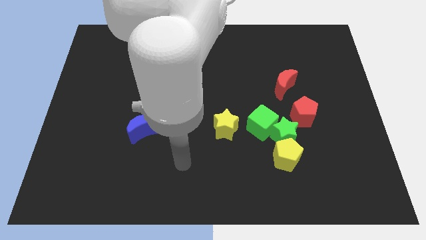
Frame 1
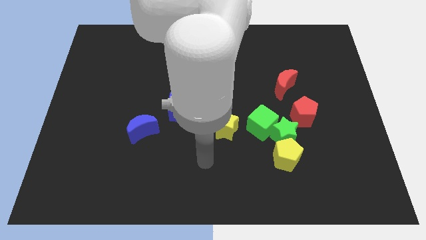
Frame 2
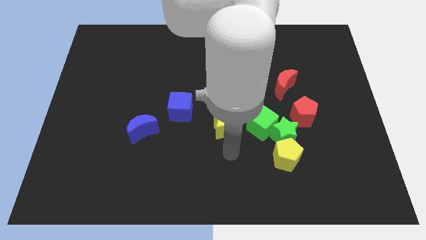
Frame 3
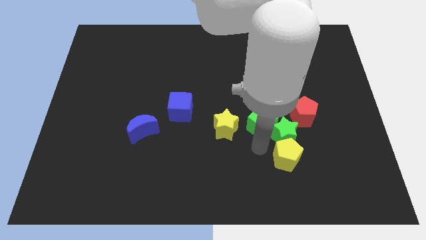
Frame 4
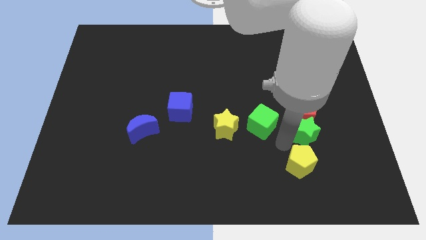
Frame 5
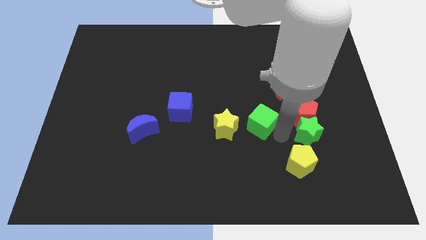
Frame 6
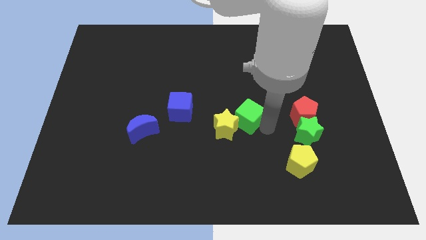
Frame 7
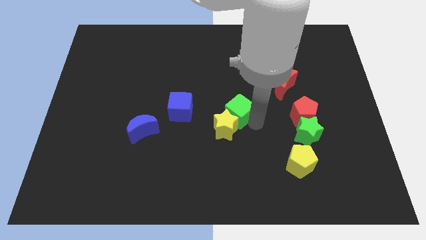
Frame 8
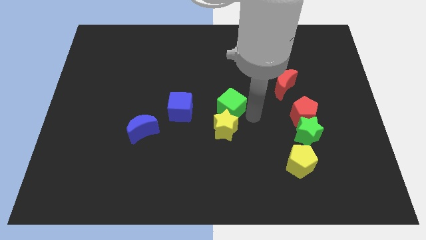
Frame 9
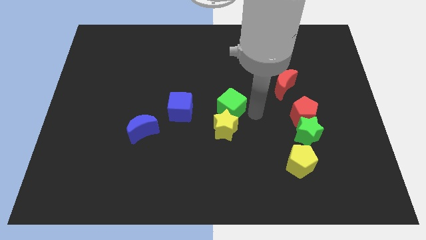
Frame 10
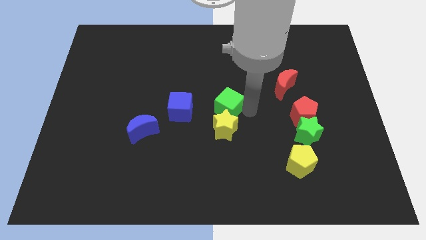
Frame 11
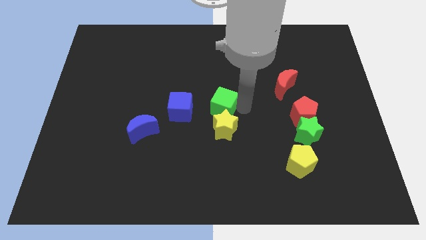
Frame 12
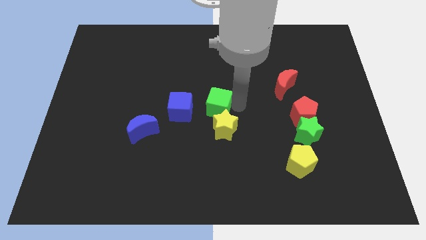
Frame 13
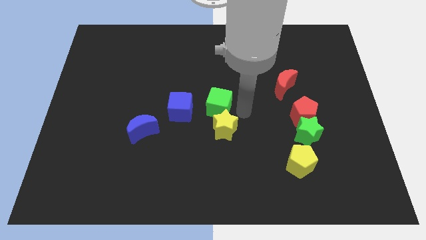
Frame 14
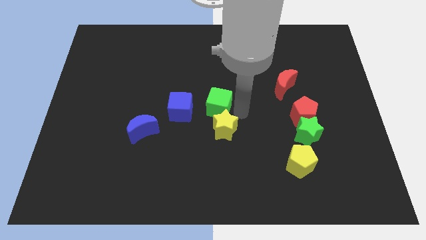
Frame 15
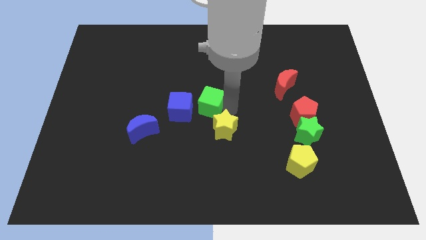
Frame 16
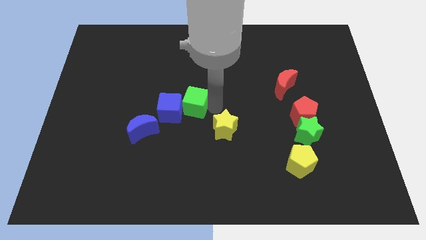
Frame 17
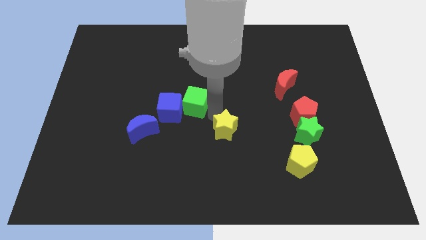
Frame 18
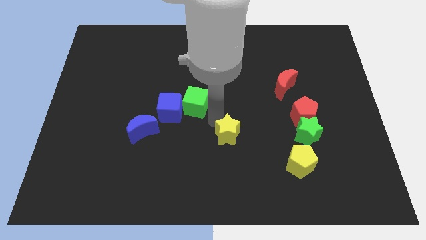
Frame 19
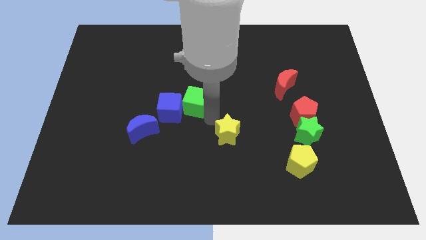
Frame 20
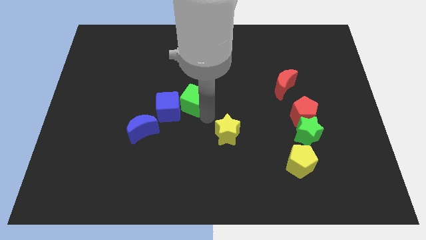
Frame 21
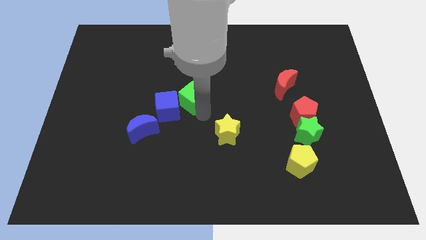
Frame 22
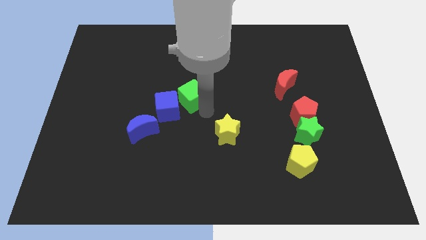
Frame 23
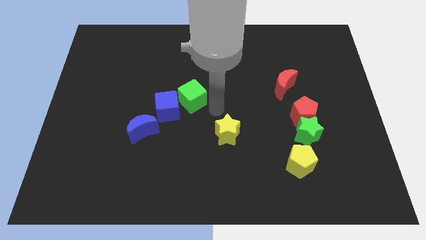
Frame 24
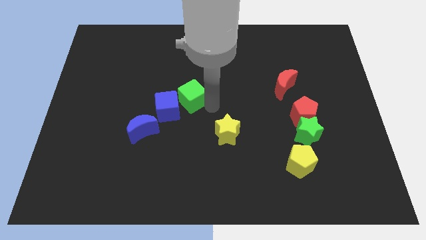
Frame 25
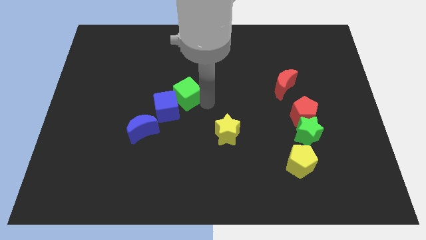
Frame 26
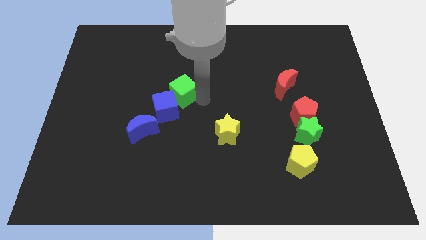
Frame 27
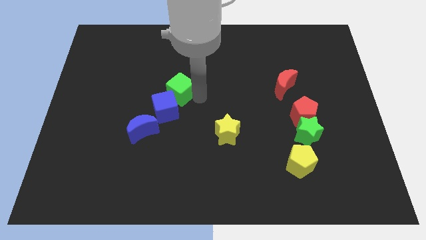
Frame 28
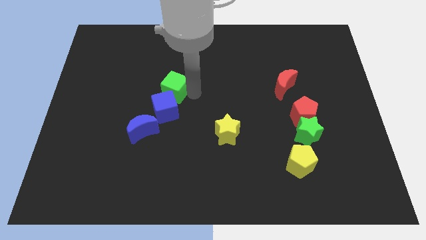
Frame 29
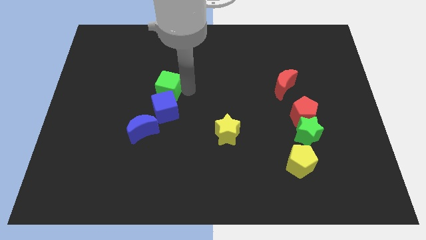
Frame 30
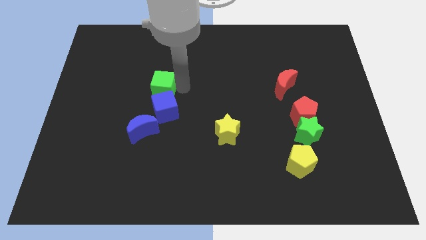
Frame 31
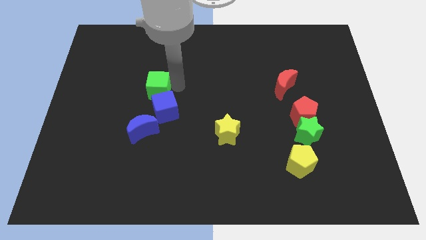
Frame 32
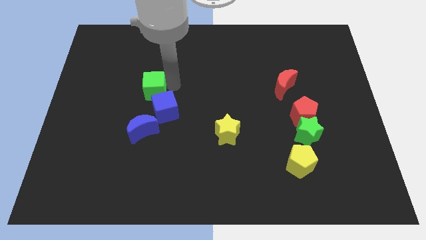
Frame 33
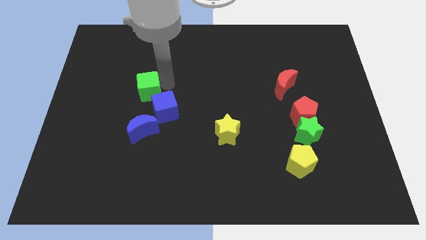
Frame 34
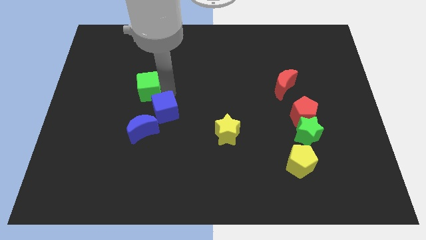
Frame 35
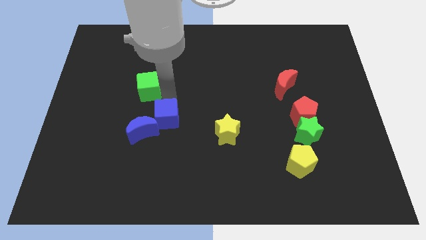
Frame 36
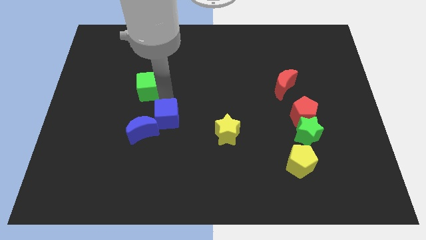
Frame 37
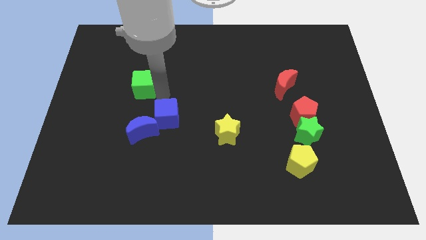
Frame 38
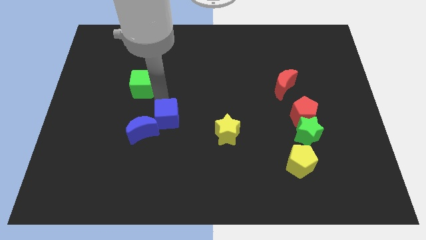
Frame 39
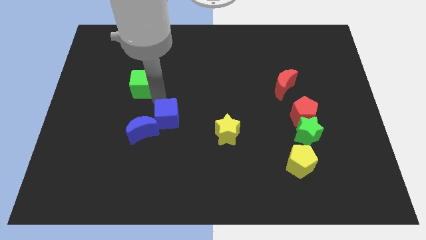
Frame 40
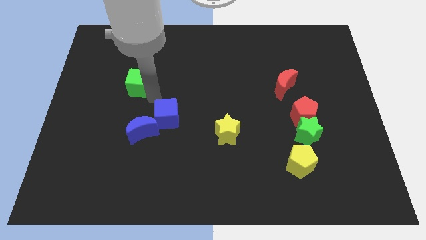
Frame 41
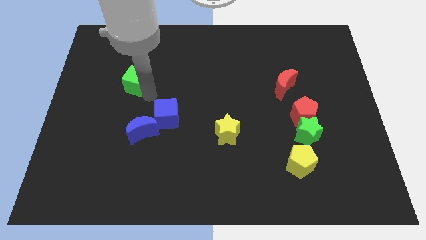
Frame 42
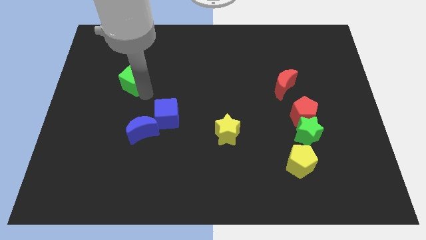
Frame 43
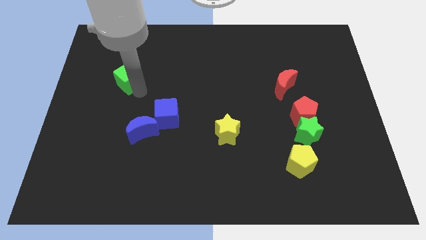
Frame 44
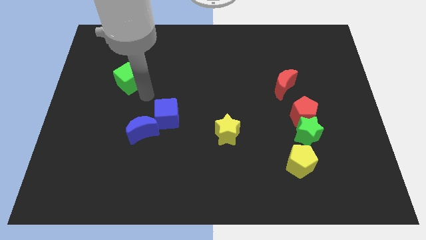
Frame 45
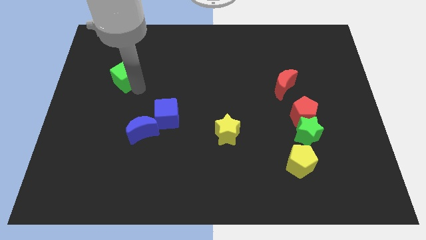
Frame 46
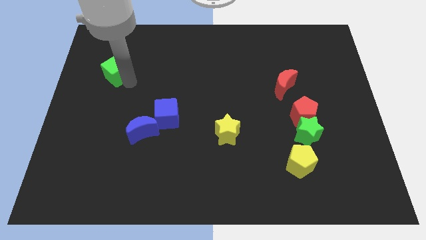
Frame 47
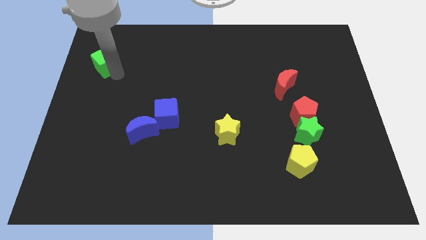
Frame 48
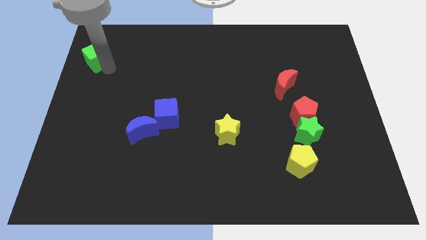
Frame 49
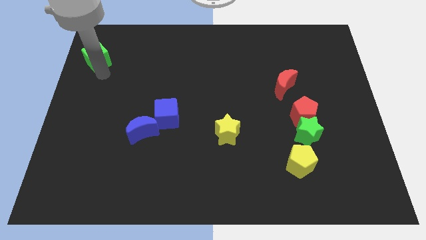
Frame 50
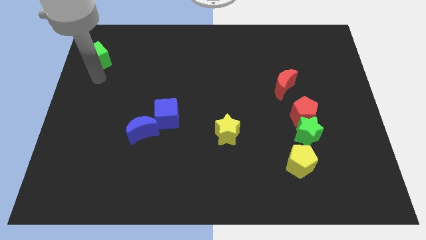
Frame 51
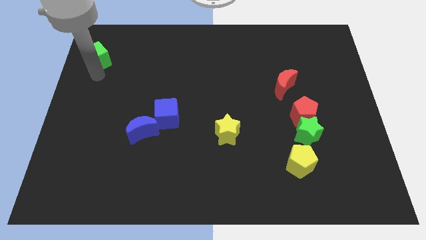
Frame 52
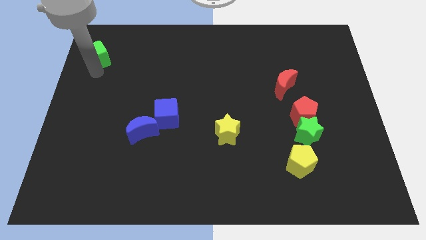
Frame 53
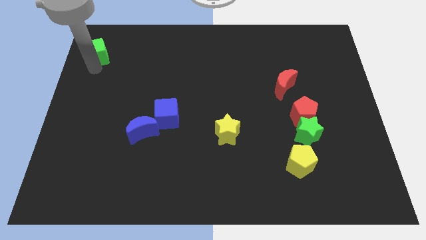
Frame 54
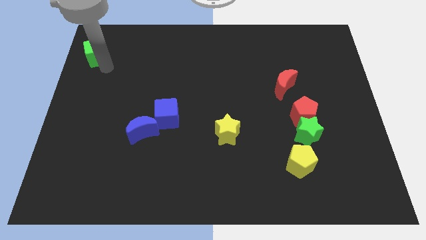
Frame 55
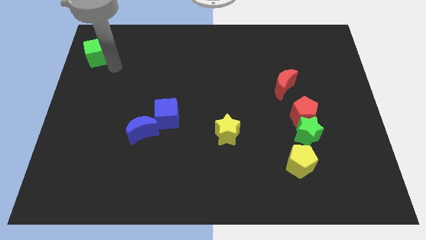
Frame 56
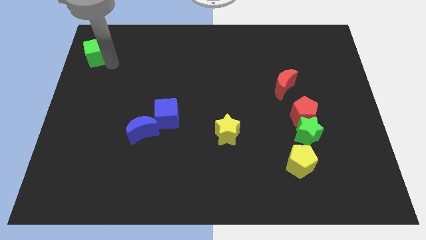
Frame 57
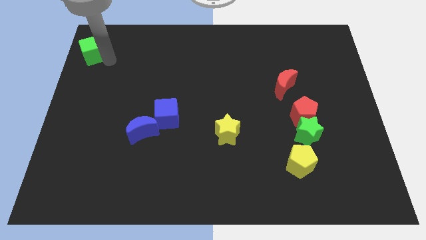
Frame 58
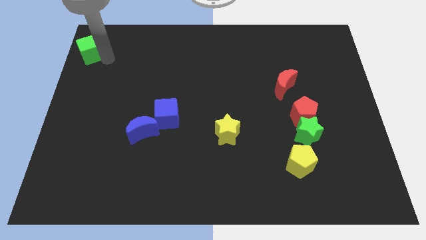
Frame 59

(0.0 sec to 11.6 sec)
slide the green cube to the top left
